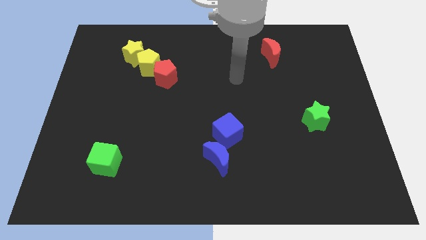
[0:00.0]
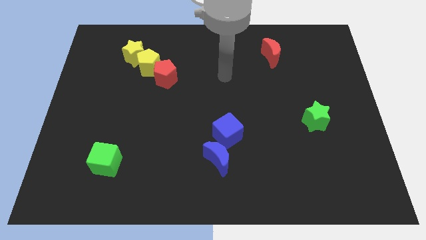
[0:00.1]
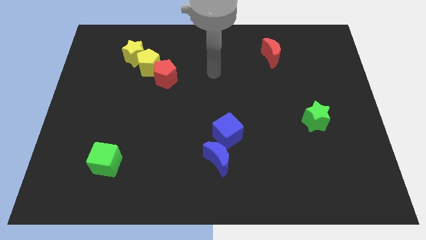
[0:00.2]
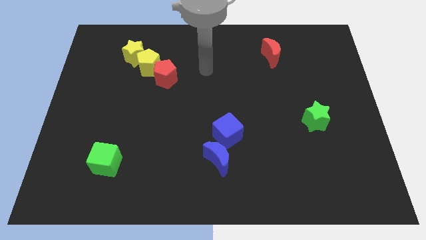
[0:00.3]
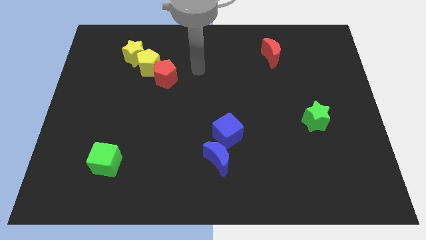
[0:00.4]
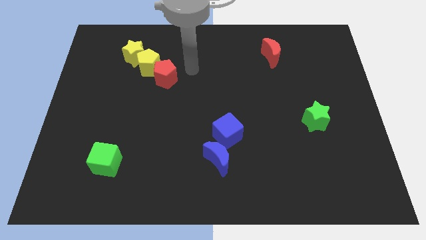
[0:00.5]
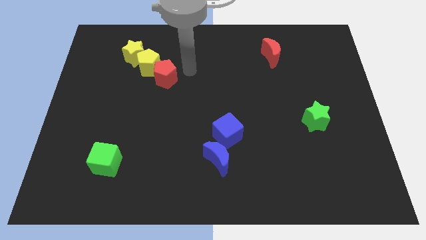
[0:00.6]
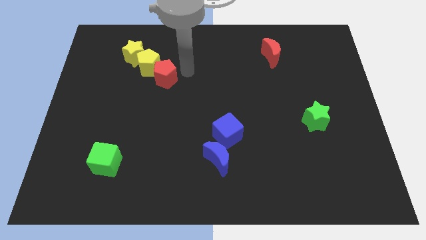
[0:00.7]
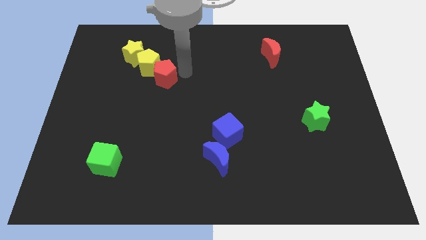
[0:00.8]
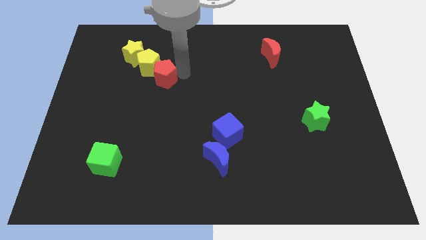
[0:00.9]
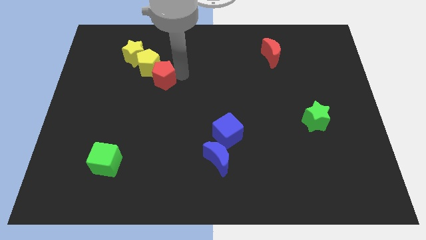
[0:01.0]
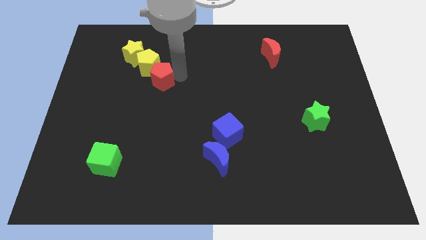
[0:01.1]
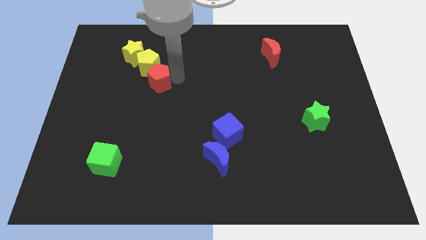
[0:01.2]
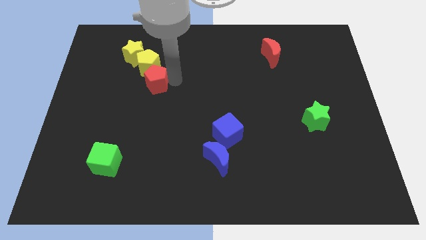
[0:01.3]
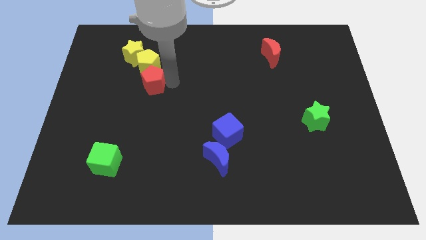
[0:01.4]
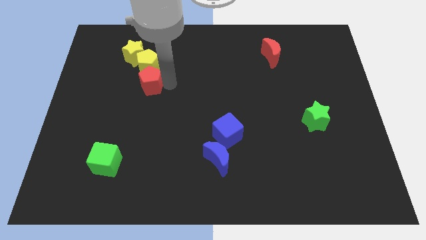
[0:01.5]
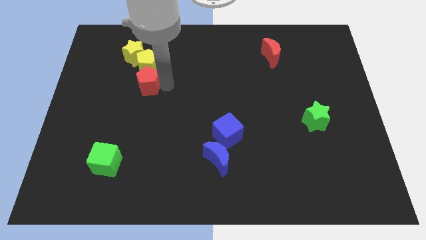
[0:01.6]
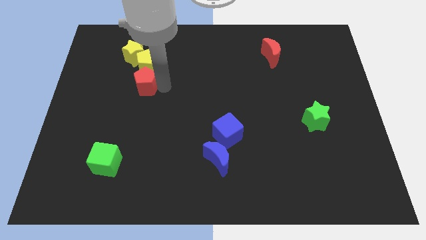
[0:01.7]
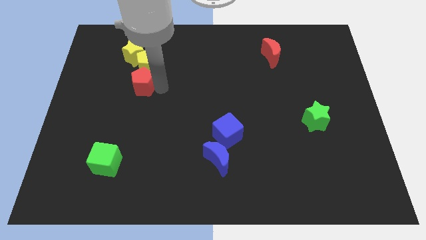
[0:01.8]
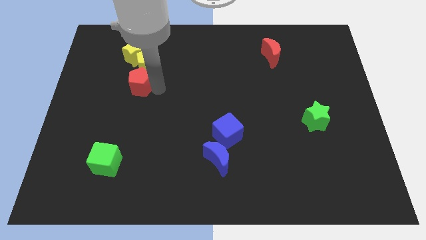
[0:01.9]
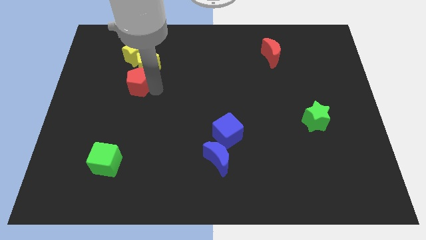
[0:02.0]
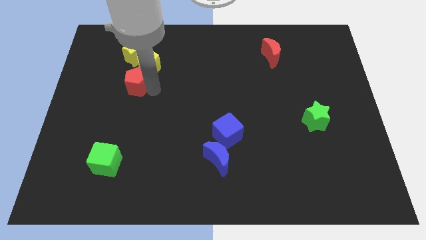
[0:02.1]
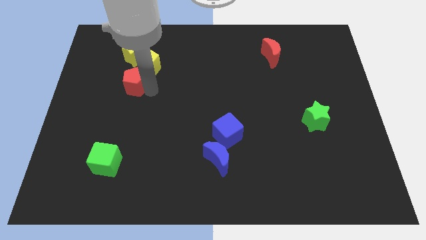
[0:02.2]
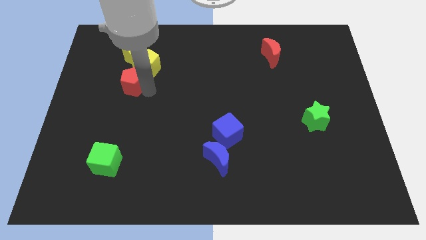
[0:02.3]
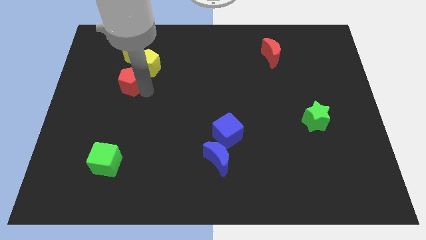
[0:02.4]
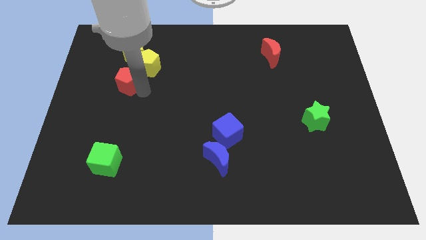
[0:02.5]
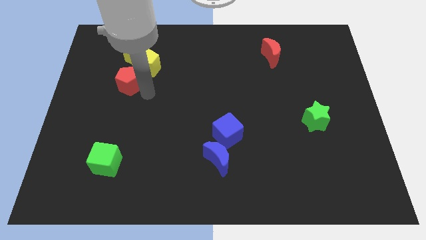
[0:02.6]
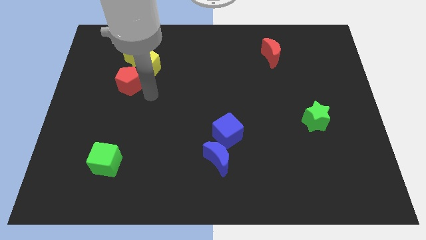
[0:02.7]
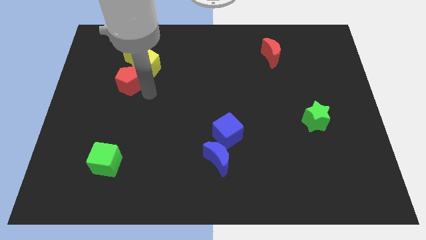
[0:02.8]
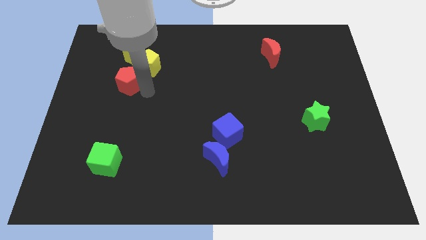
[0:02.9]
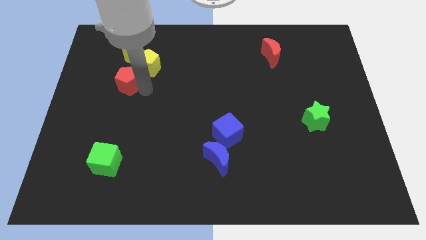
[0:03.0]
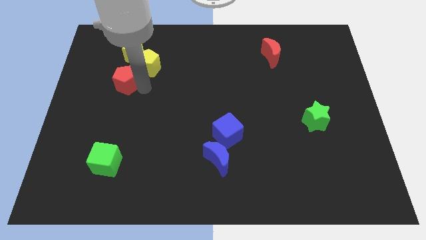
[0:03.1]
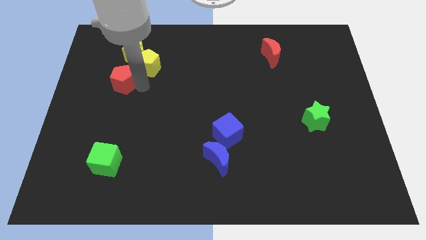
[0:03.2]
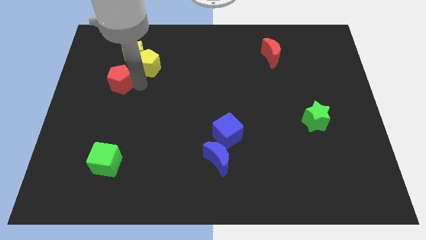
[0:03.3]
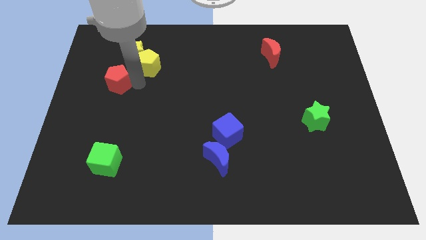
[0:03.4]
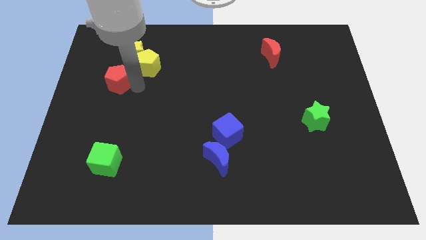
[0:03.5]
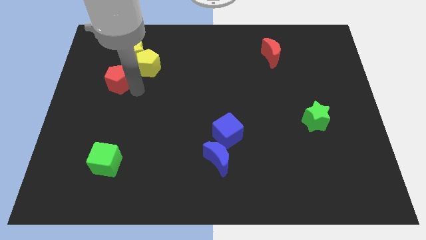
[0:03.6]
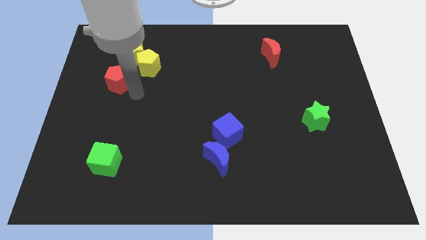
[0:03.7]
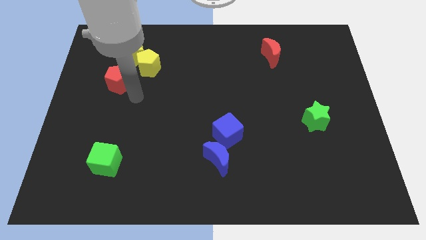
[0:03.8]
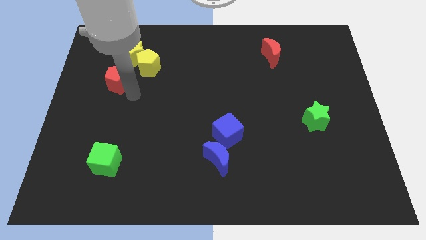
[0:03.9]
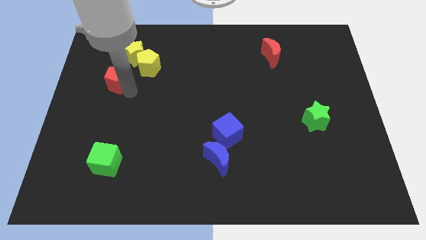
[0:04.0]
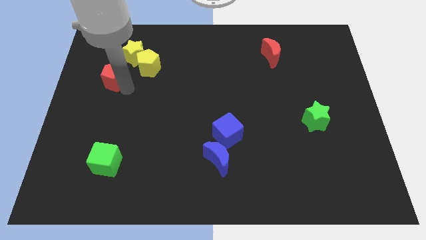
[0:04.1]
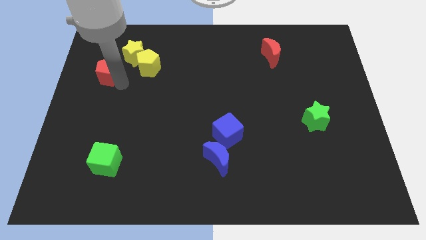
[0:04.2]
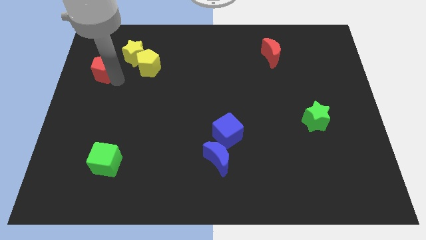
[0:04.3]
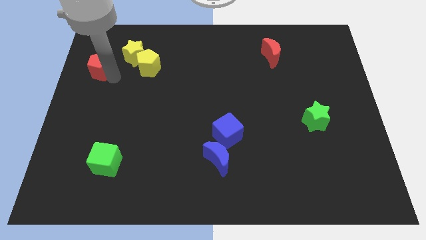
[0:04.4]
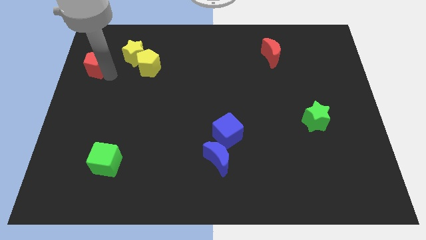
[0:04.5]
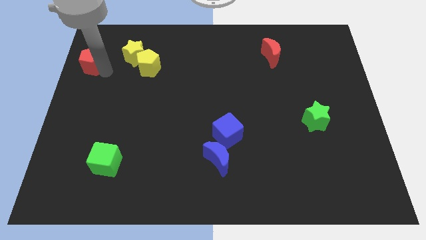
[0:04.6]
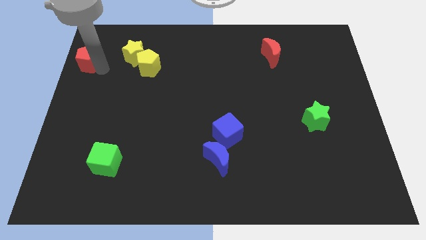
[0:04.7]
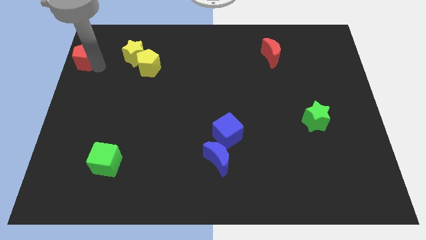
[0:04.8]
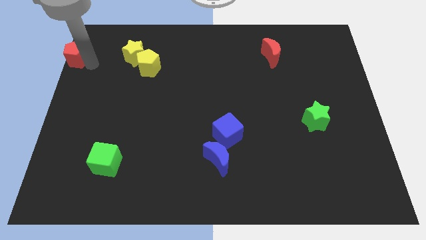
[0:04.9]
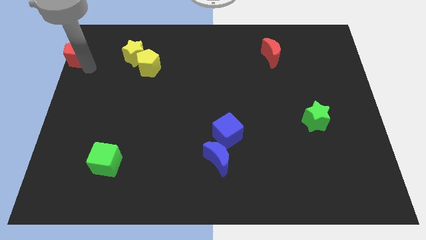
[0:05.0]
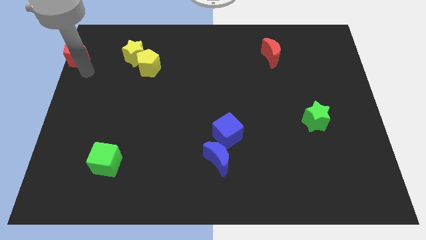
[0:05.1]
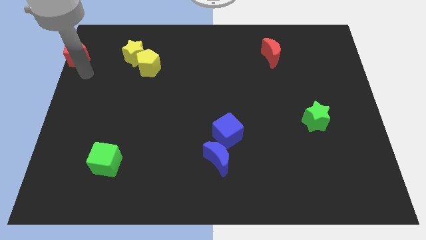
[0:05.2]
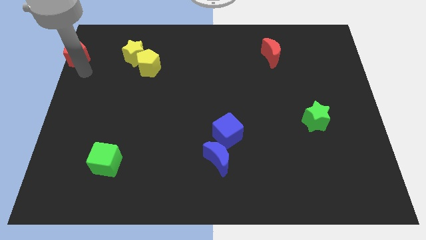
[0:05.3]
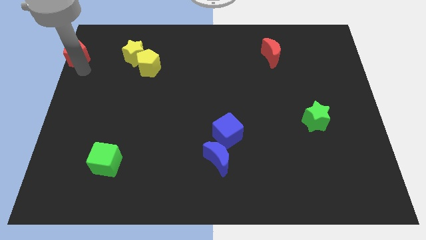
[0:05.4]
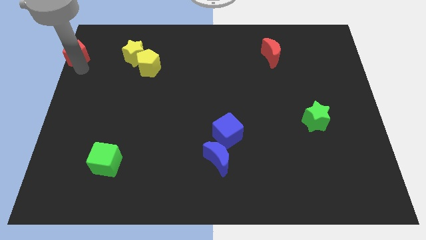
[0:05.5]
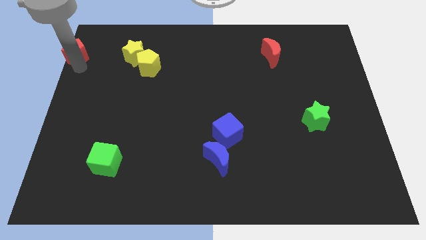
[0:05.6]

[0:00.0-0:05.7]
slide the red pentagon to the top left

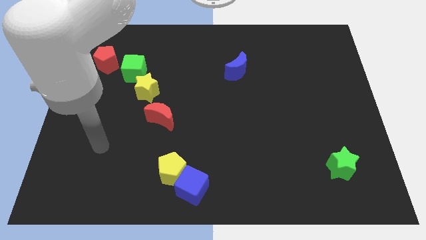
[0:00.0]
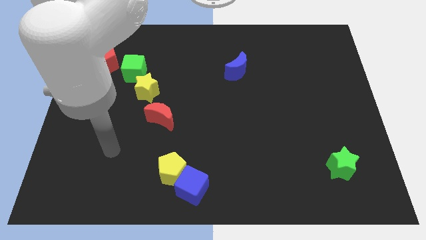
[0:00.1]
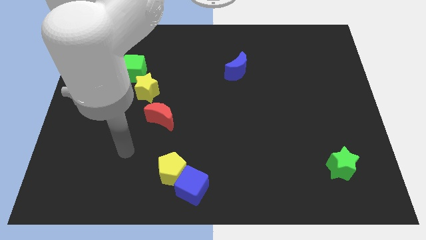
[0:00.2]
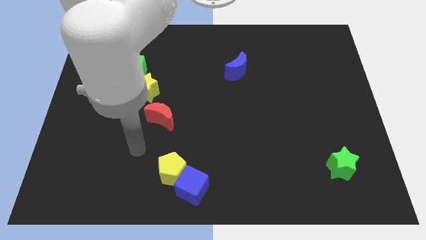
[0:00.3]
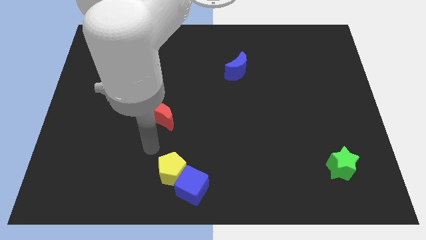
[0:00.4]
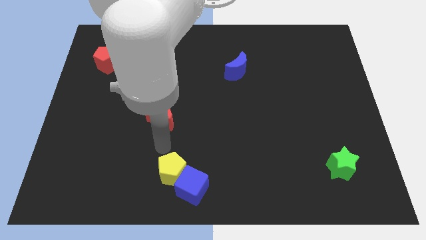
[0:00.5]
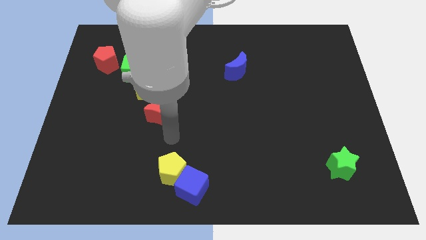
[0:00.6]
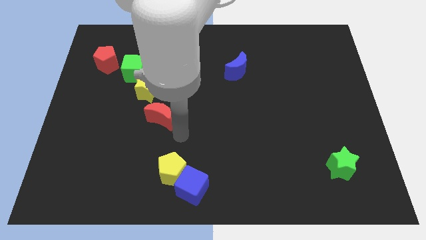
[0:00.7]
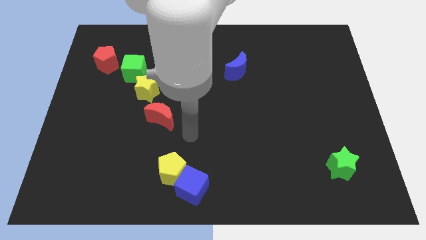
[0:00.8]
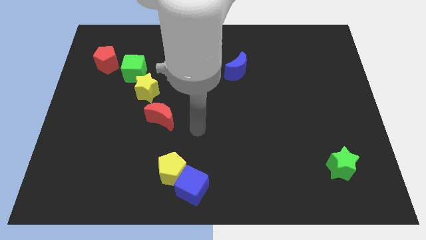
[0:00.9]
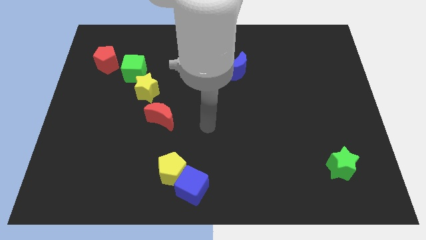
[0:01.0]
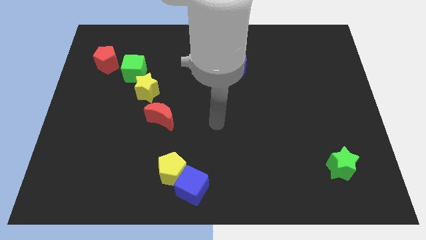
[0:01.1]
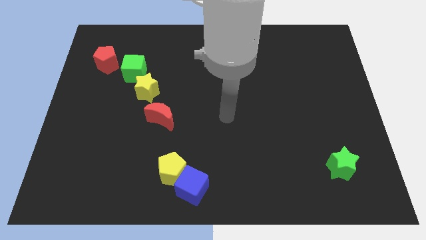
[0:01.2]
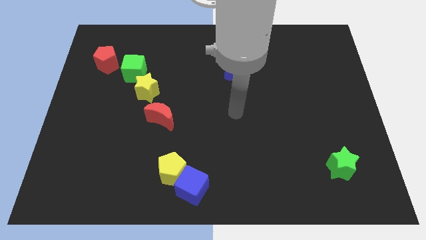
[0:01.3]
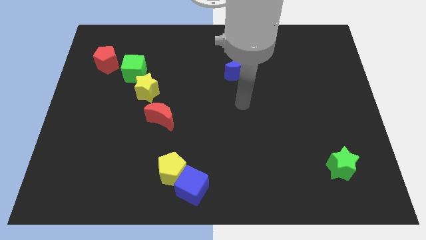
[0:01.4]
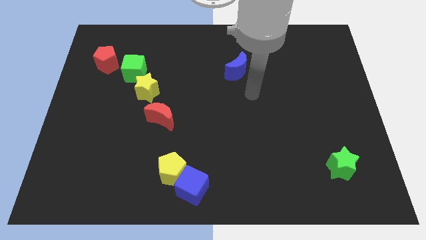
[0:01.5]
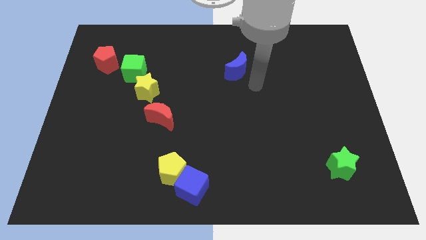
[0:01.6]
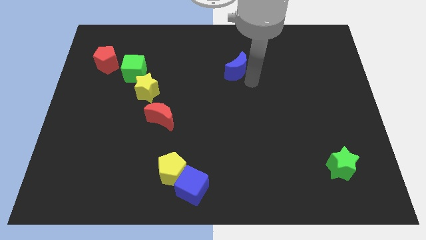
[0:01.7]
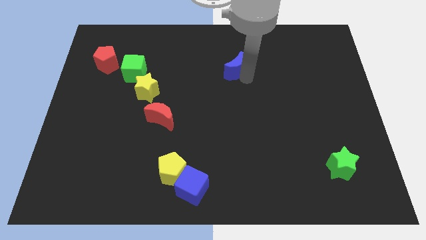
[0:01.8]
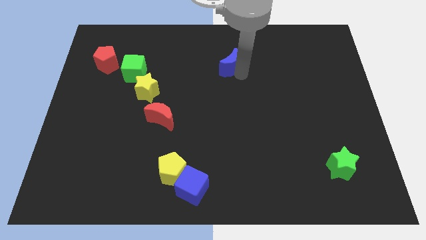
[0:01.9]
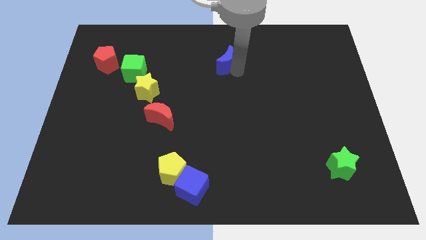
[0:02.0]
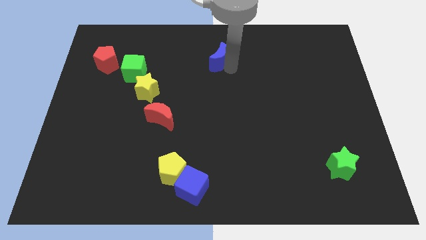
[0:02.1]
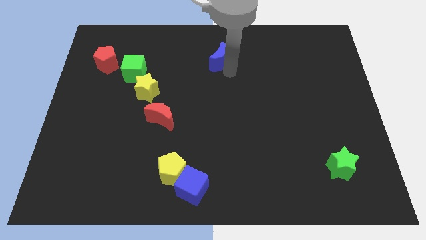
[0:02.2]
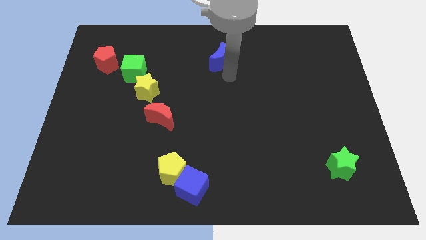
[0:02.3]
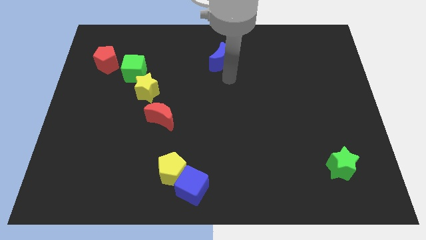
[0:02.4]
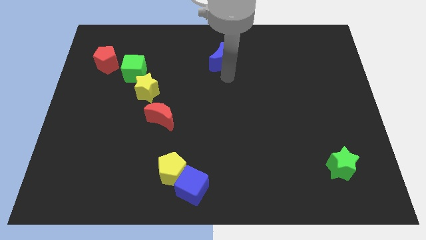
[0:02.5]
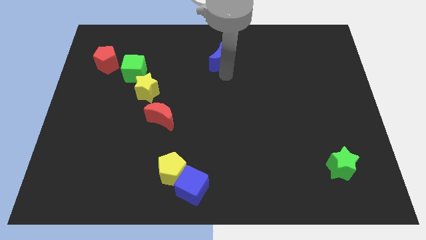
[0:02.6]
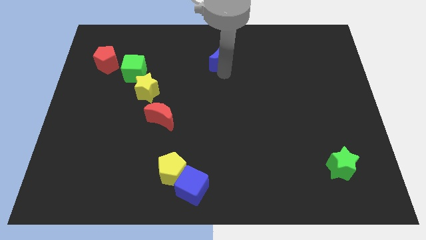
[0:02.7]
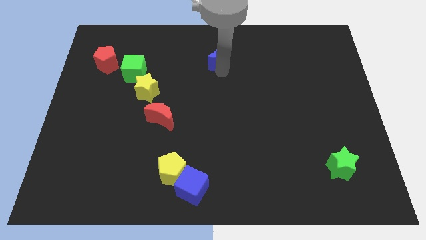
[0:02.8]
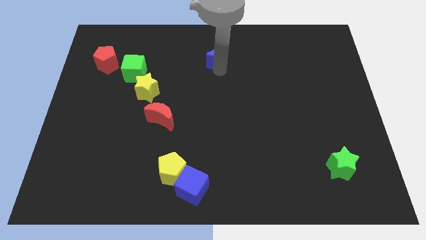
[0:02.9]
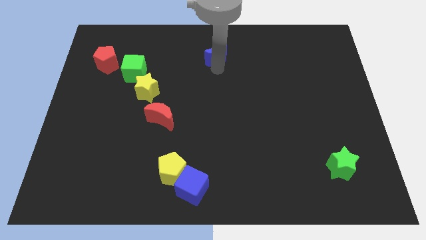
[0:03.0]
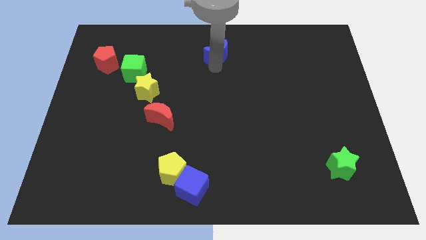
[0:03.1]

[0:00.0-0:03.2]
push the blue moon to the towards your base
